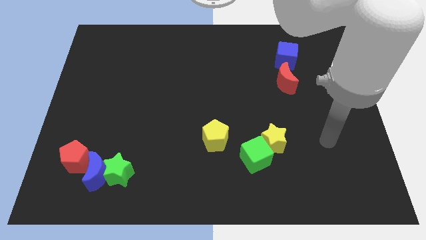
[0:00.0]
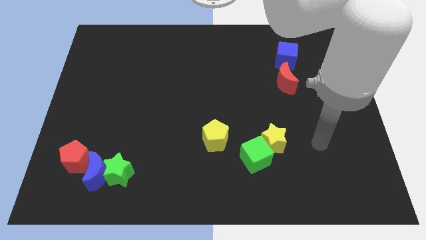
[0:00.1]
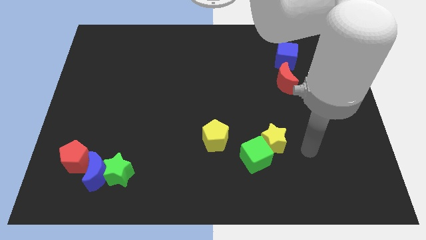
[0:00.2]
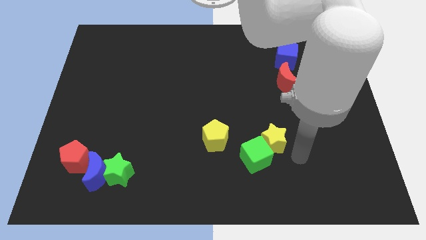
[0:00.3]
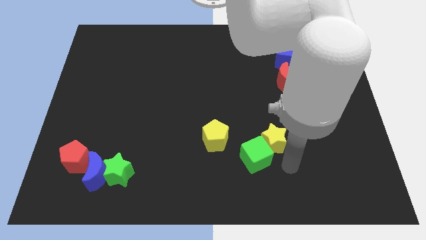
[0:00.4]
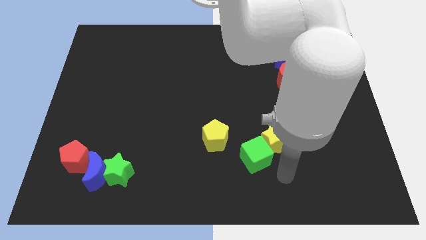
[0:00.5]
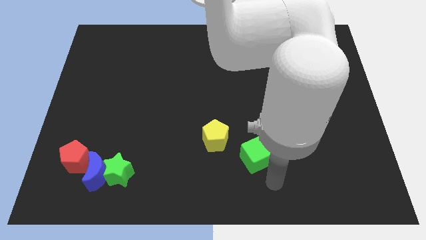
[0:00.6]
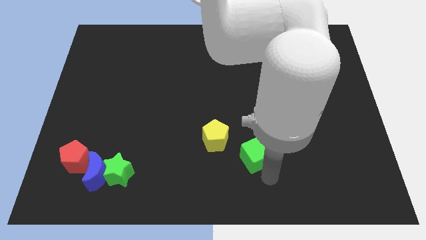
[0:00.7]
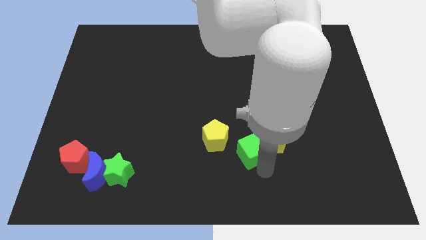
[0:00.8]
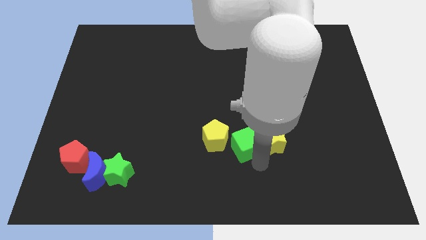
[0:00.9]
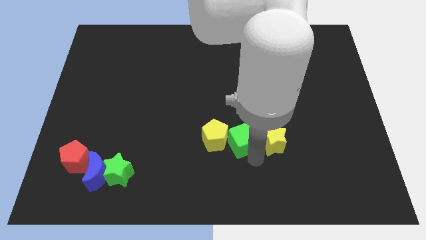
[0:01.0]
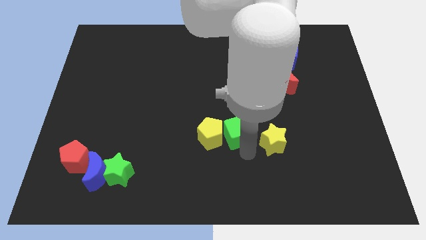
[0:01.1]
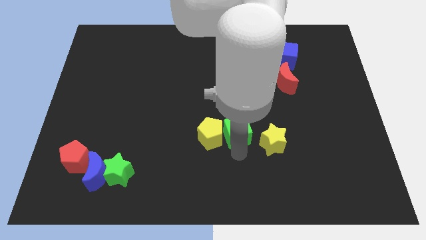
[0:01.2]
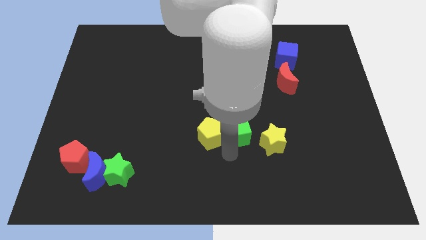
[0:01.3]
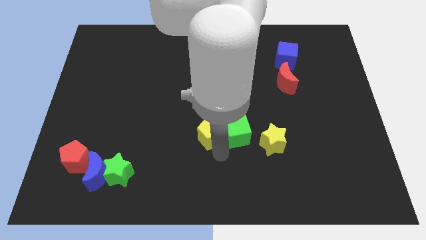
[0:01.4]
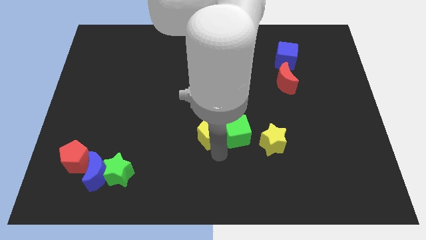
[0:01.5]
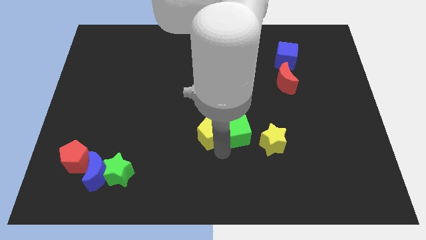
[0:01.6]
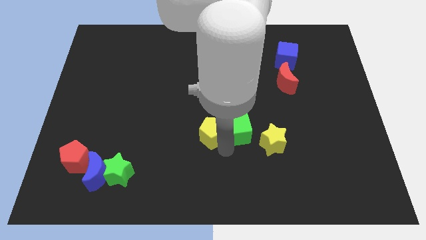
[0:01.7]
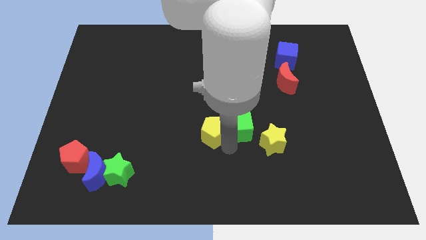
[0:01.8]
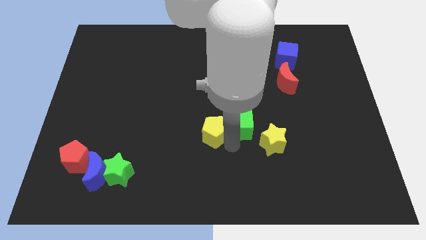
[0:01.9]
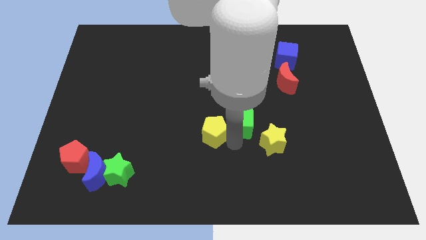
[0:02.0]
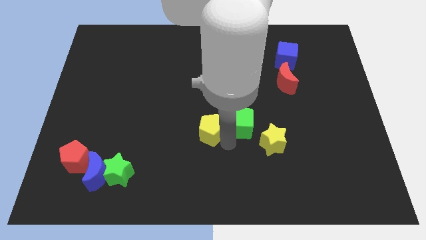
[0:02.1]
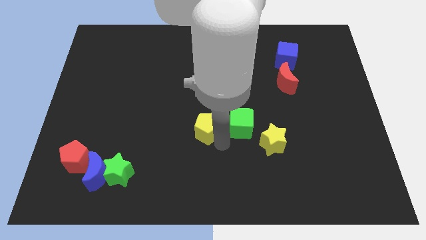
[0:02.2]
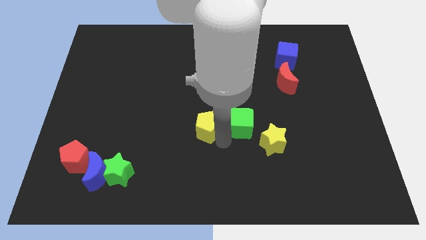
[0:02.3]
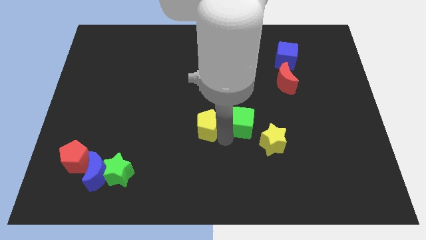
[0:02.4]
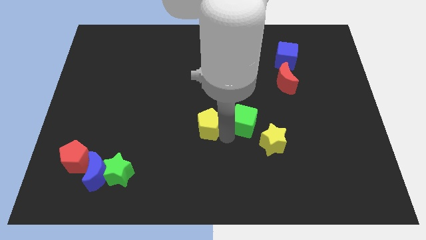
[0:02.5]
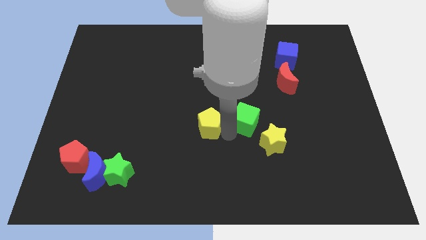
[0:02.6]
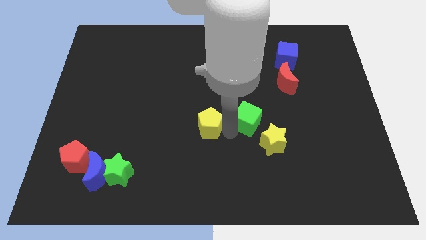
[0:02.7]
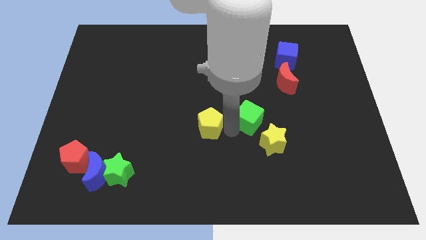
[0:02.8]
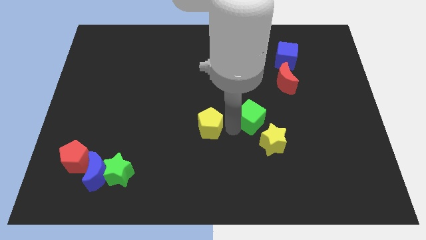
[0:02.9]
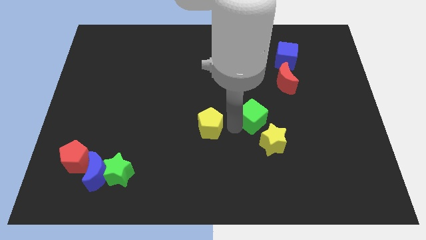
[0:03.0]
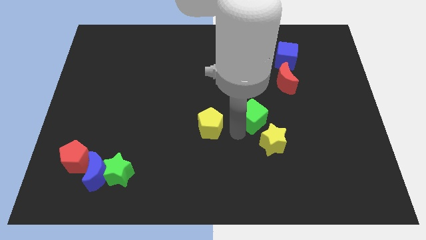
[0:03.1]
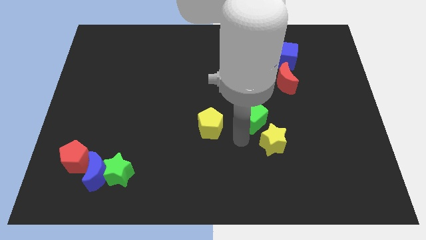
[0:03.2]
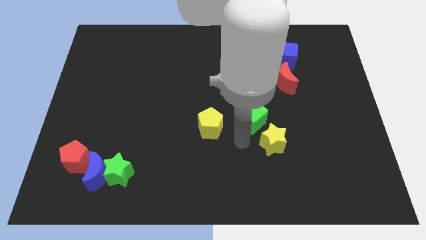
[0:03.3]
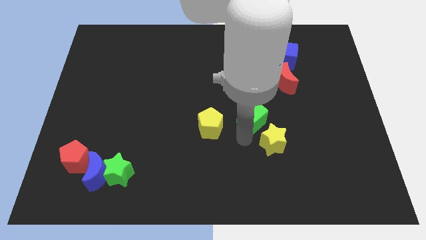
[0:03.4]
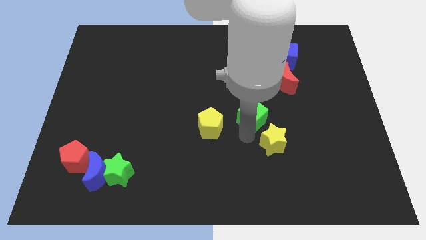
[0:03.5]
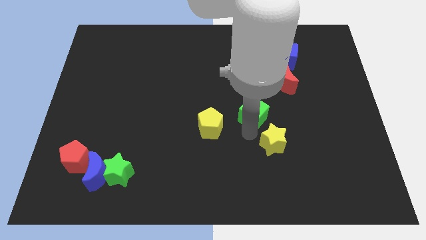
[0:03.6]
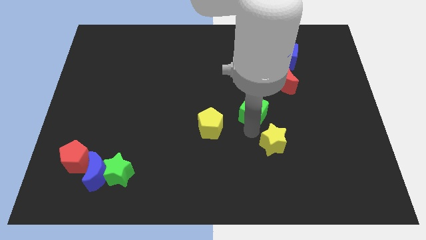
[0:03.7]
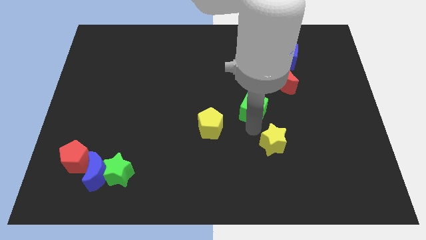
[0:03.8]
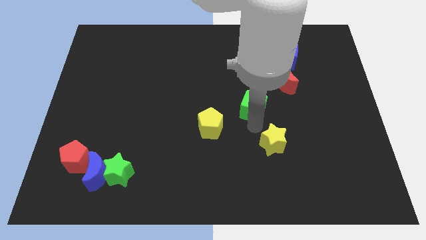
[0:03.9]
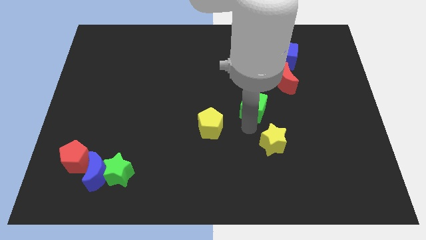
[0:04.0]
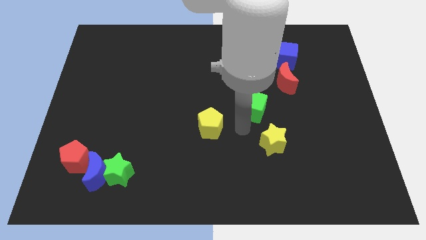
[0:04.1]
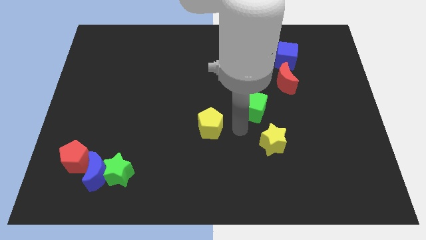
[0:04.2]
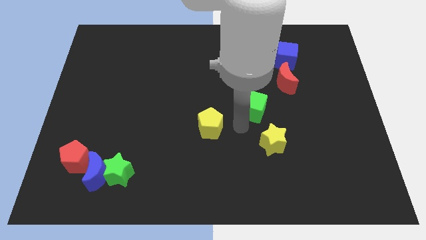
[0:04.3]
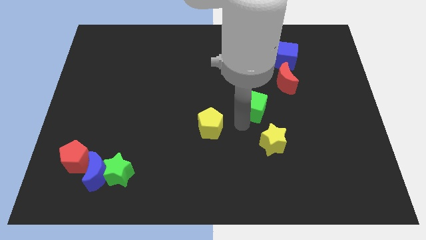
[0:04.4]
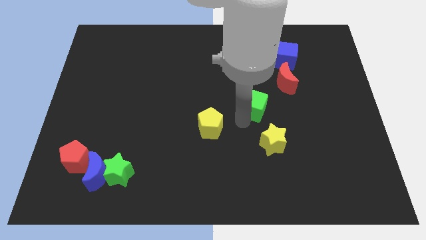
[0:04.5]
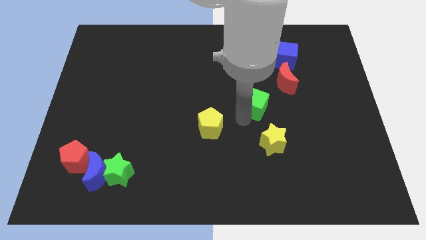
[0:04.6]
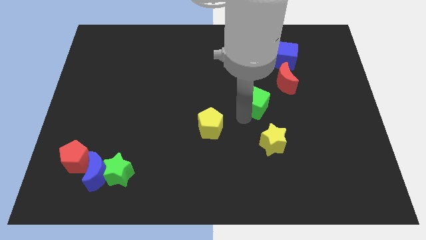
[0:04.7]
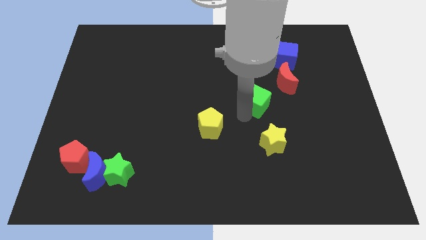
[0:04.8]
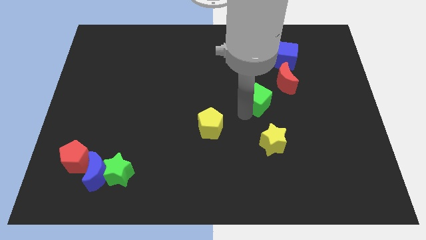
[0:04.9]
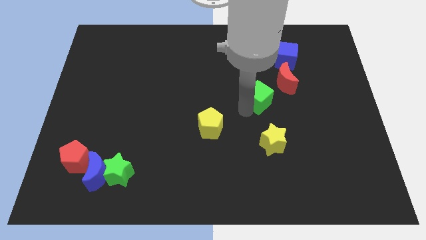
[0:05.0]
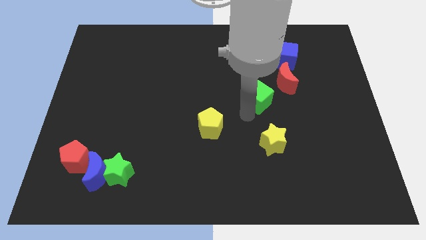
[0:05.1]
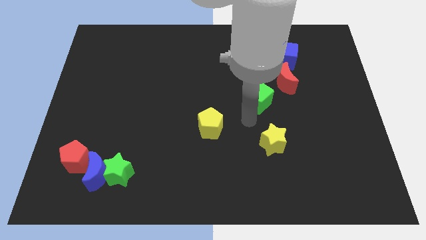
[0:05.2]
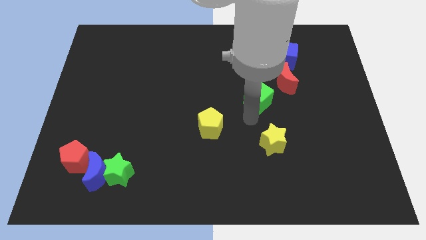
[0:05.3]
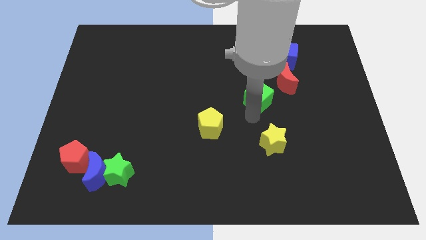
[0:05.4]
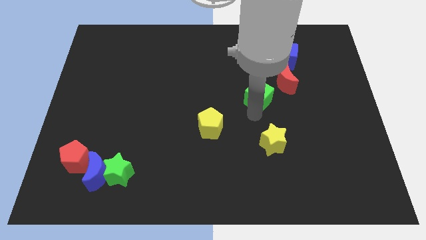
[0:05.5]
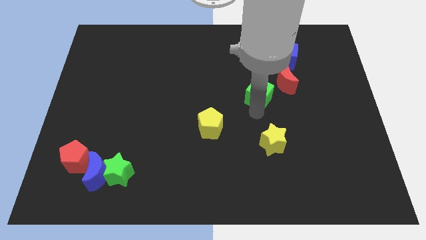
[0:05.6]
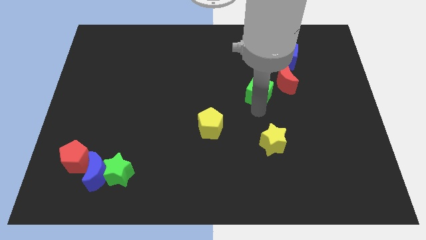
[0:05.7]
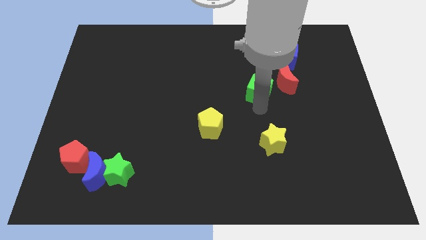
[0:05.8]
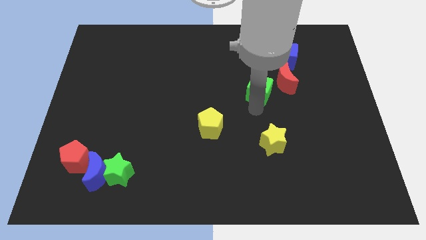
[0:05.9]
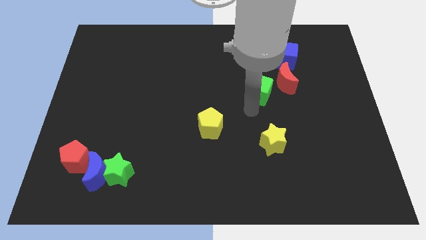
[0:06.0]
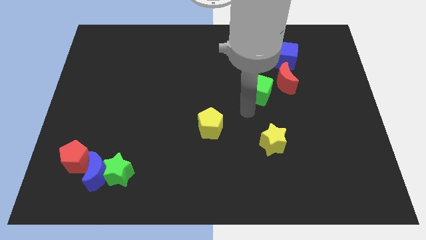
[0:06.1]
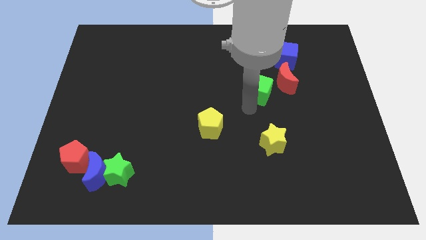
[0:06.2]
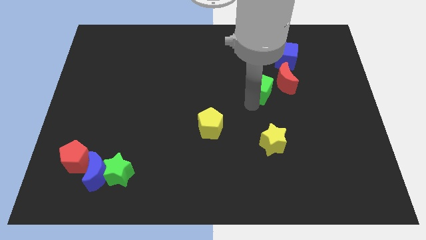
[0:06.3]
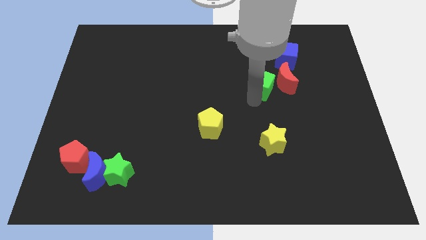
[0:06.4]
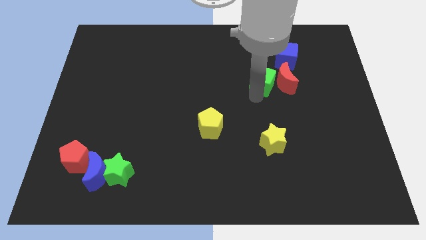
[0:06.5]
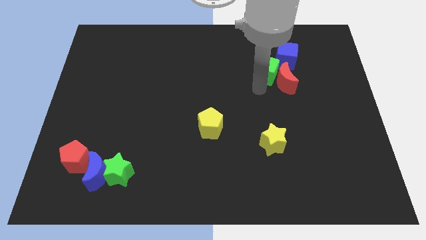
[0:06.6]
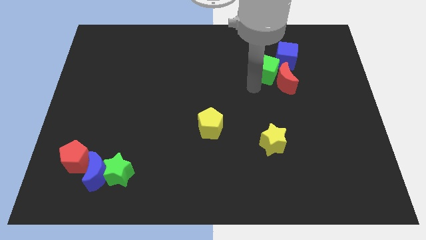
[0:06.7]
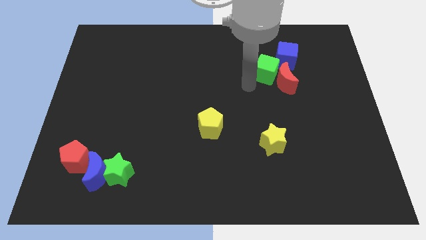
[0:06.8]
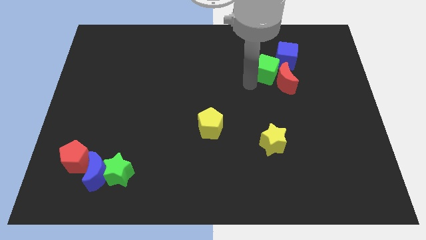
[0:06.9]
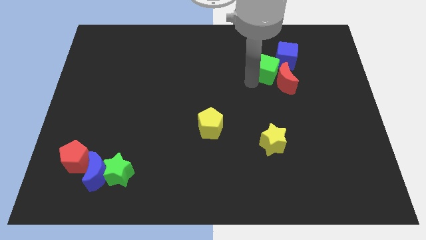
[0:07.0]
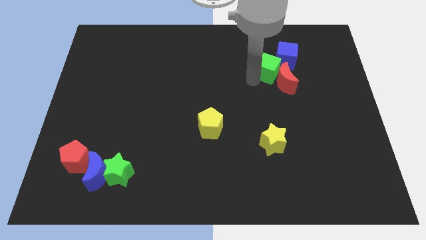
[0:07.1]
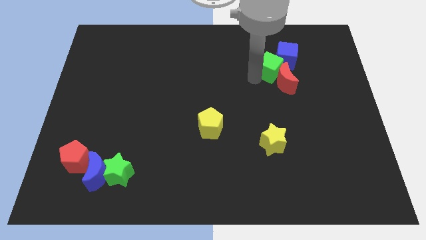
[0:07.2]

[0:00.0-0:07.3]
slide the green cube to the blue cube

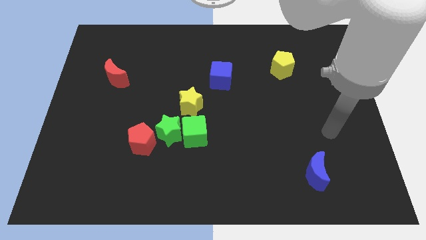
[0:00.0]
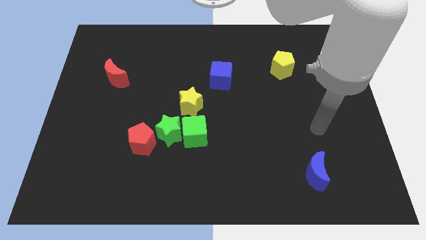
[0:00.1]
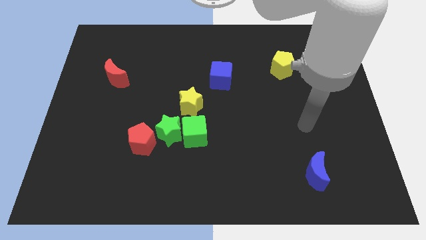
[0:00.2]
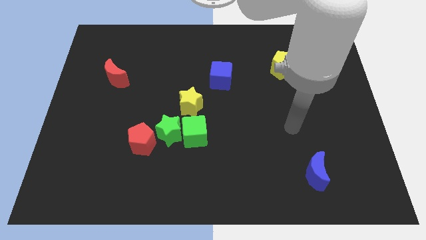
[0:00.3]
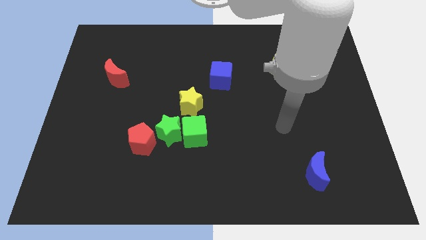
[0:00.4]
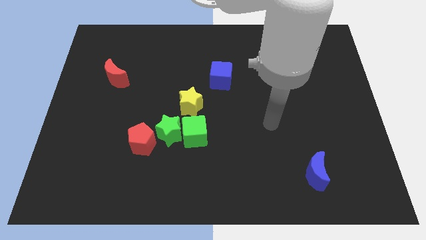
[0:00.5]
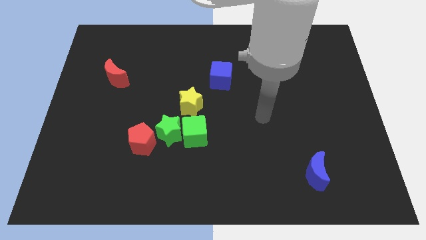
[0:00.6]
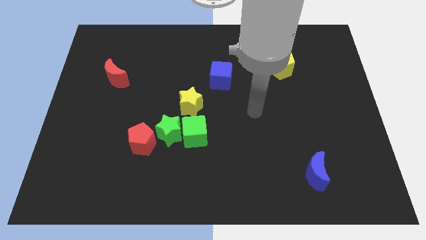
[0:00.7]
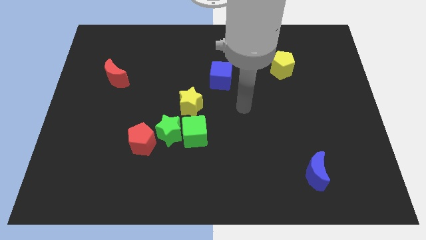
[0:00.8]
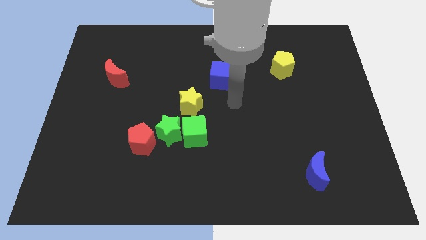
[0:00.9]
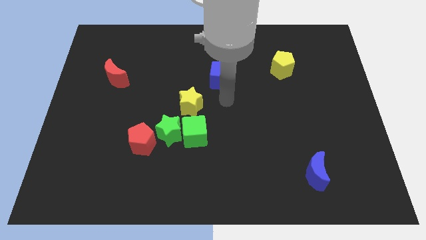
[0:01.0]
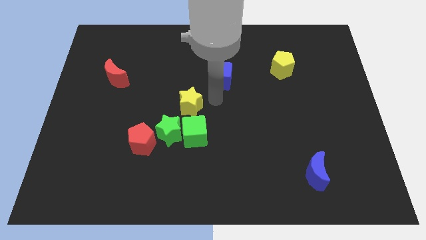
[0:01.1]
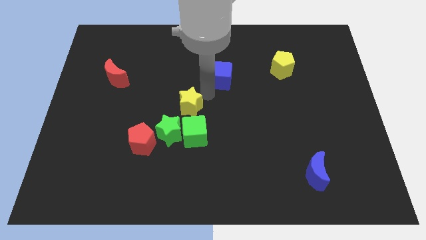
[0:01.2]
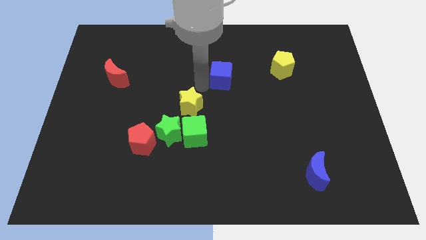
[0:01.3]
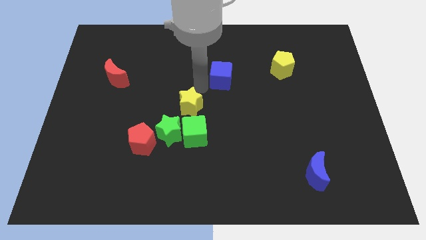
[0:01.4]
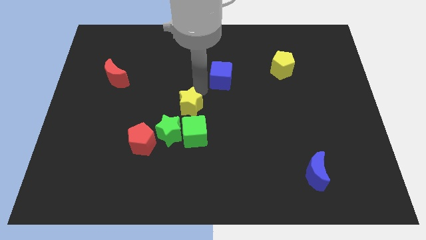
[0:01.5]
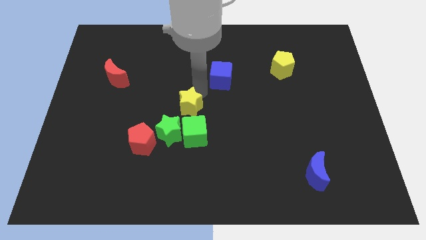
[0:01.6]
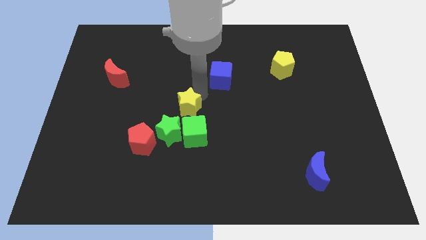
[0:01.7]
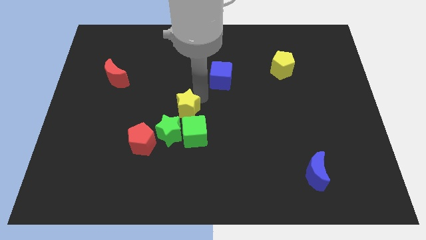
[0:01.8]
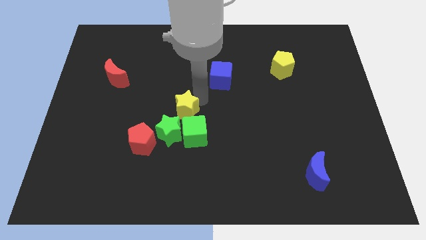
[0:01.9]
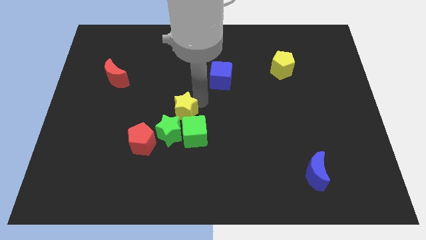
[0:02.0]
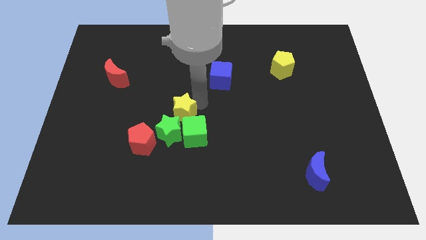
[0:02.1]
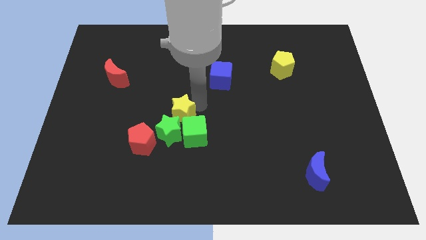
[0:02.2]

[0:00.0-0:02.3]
slide the yellow star to the green star
